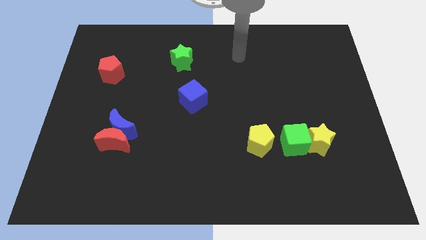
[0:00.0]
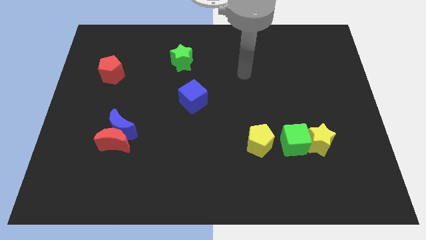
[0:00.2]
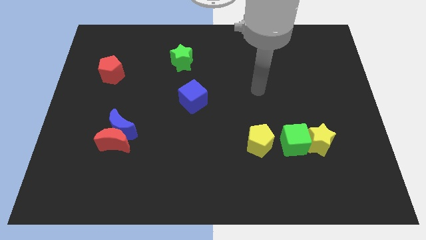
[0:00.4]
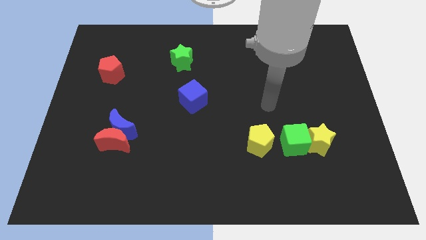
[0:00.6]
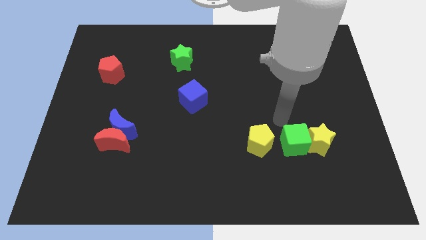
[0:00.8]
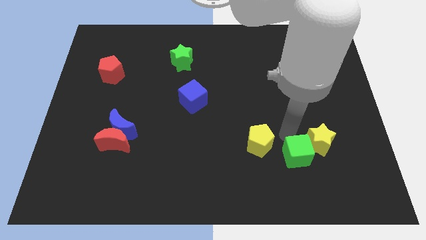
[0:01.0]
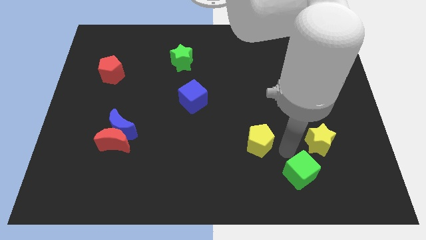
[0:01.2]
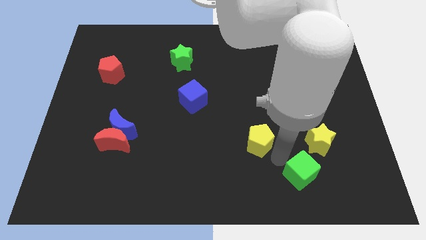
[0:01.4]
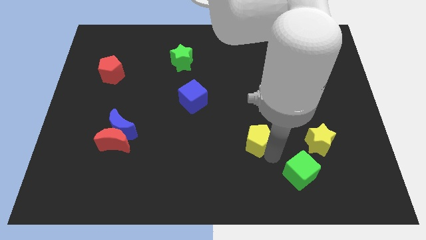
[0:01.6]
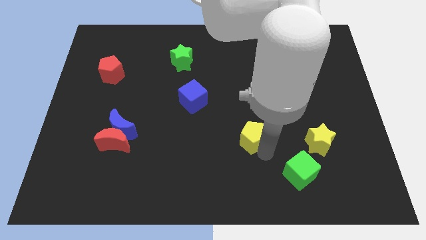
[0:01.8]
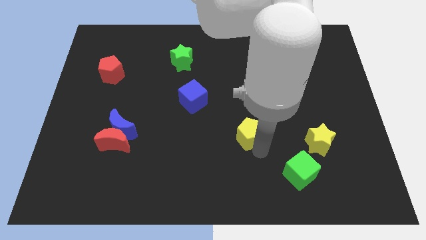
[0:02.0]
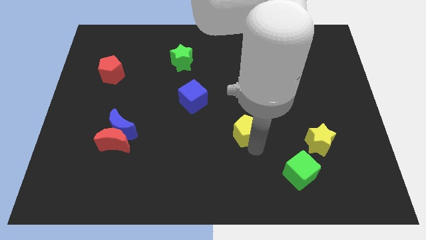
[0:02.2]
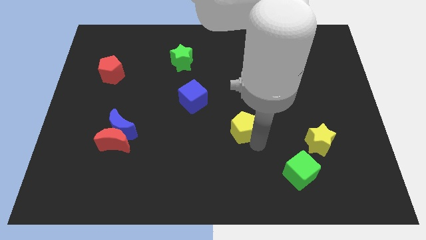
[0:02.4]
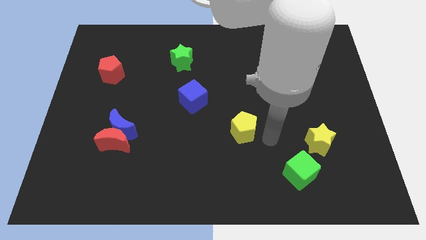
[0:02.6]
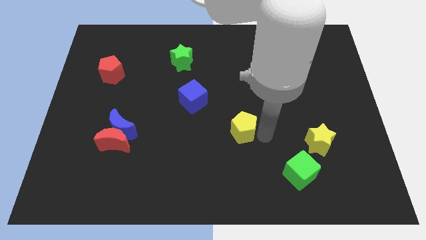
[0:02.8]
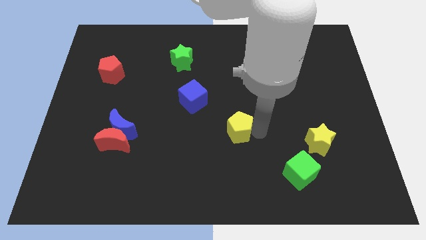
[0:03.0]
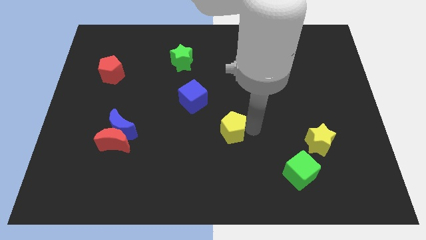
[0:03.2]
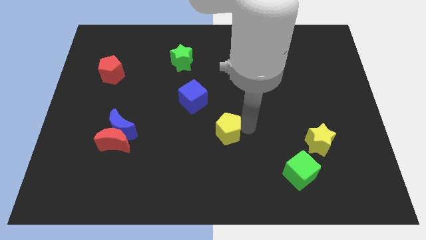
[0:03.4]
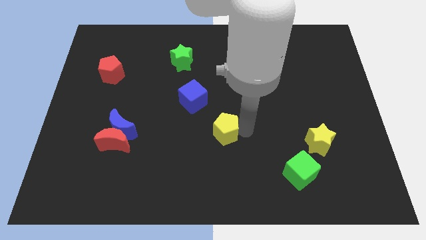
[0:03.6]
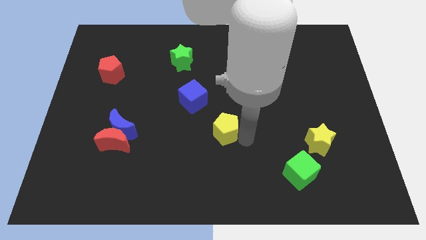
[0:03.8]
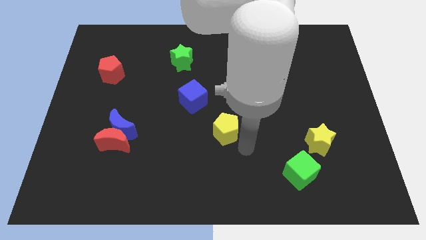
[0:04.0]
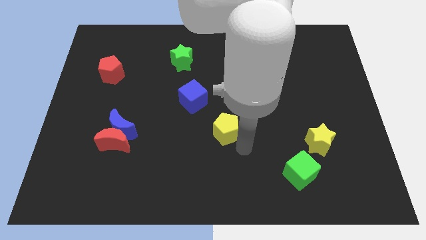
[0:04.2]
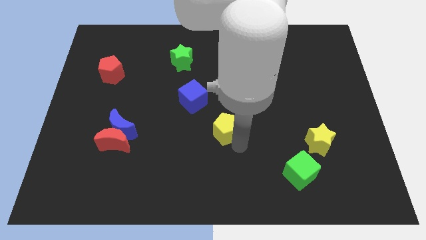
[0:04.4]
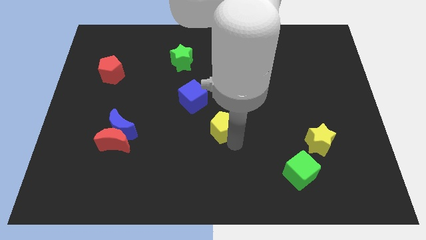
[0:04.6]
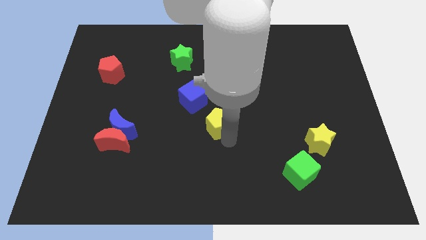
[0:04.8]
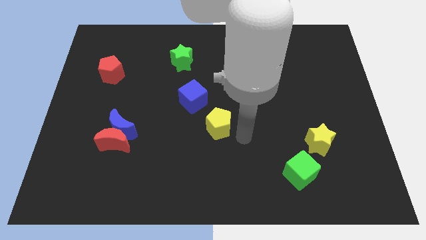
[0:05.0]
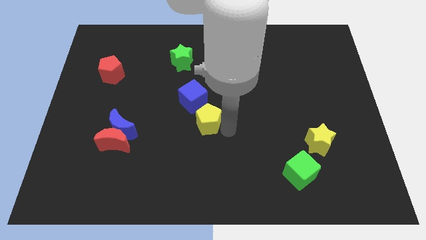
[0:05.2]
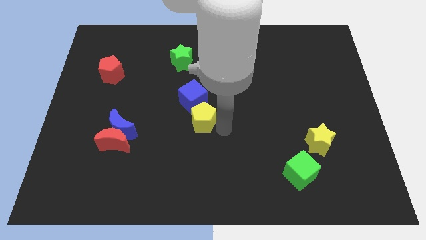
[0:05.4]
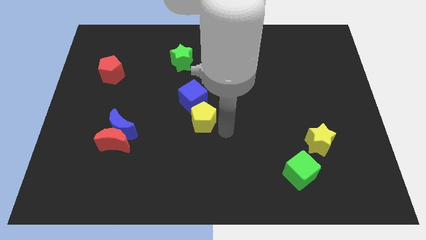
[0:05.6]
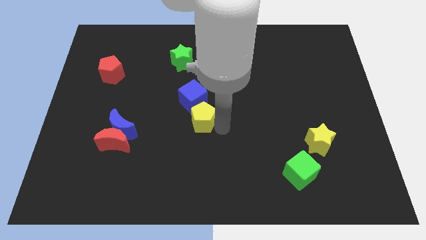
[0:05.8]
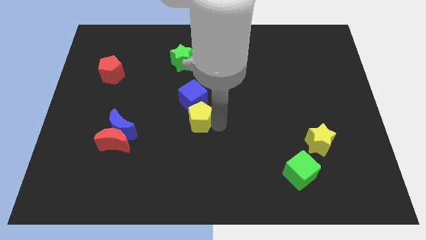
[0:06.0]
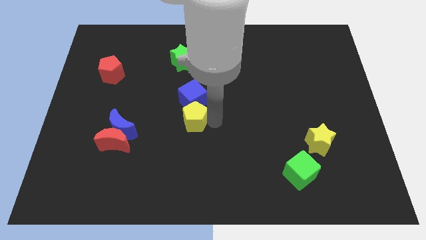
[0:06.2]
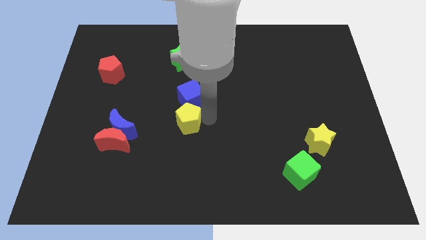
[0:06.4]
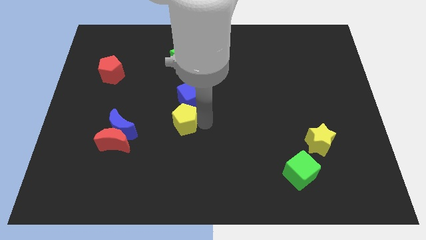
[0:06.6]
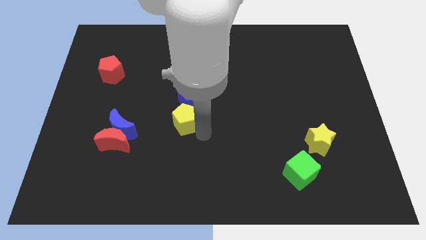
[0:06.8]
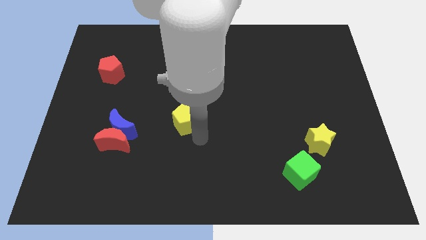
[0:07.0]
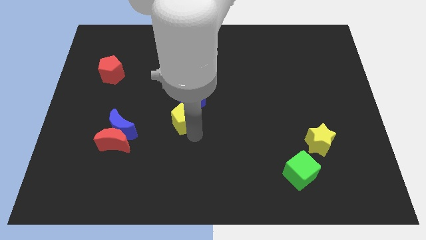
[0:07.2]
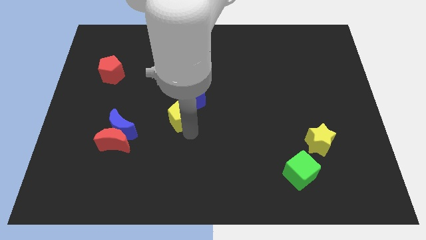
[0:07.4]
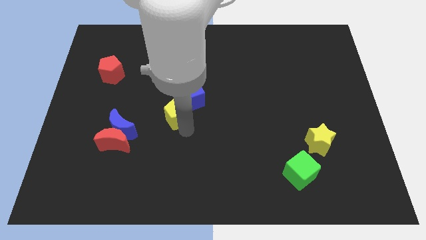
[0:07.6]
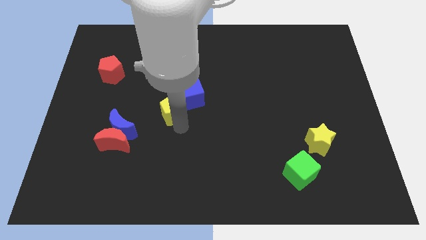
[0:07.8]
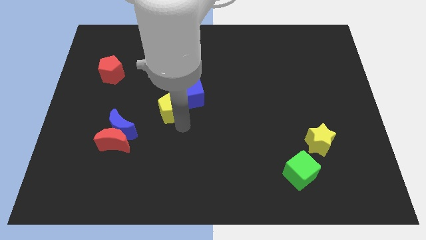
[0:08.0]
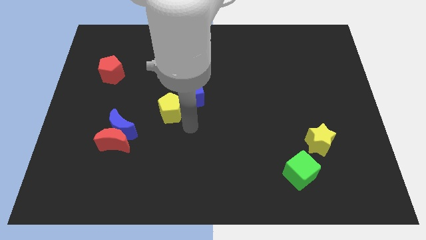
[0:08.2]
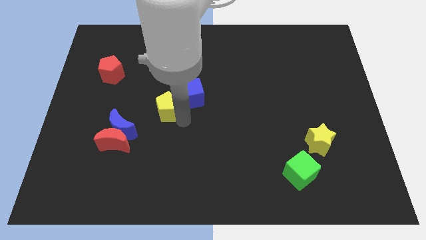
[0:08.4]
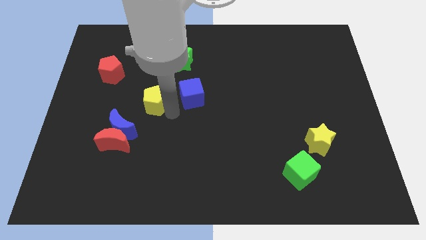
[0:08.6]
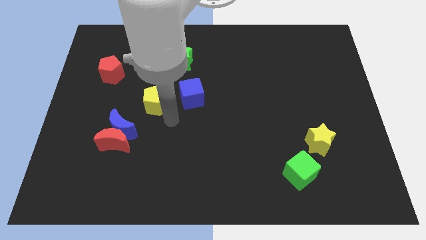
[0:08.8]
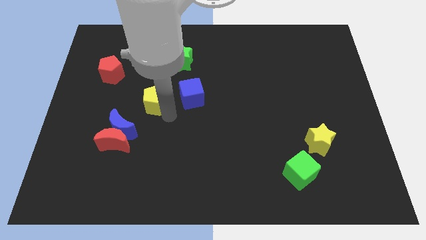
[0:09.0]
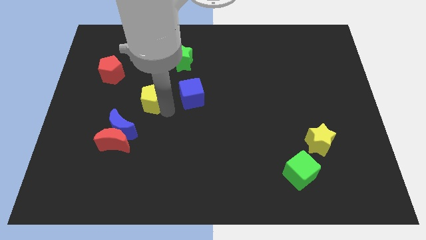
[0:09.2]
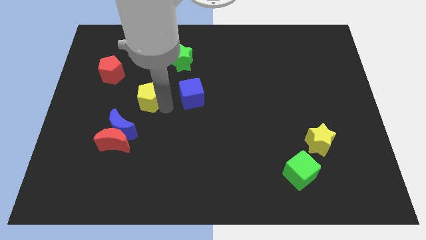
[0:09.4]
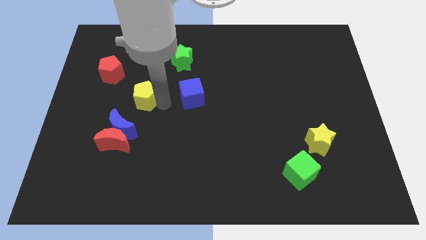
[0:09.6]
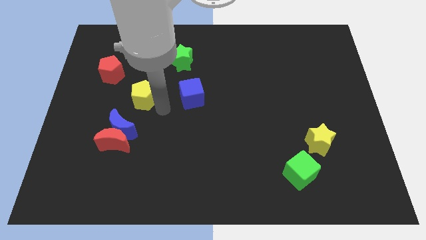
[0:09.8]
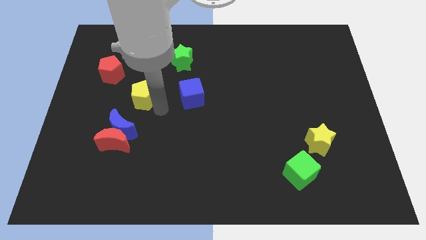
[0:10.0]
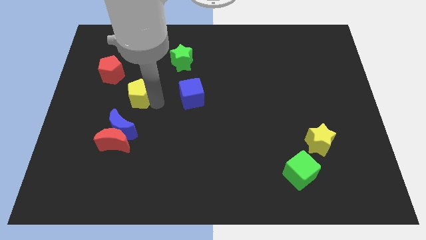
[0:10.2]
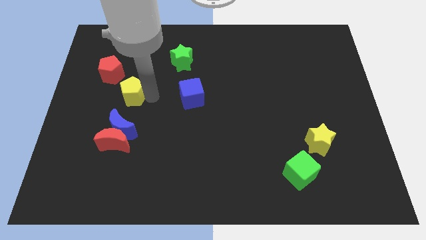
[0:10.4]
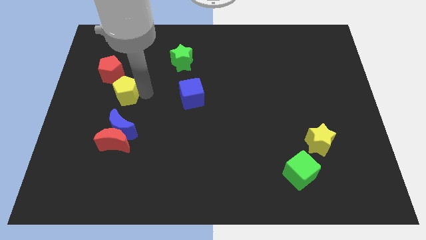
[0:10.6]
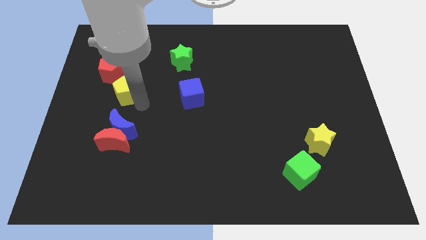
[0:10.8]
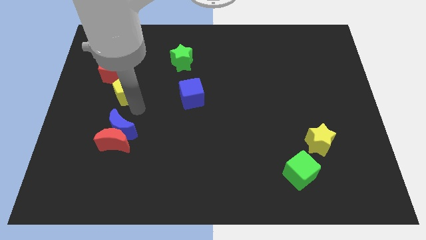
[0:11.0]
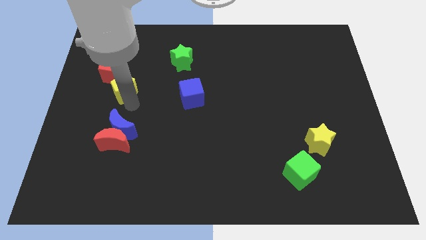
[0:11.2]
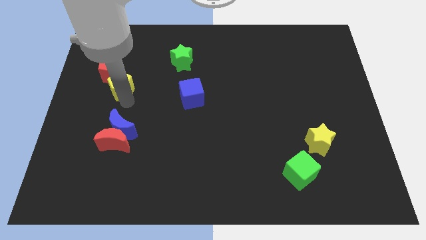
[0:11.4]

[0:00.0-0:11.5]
slide the yellow pentagon next to the red pentagon
